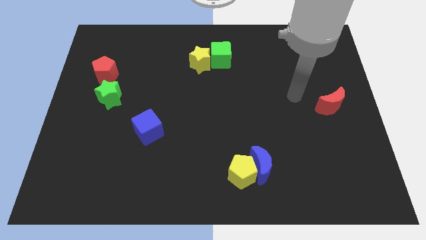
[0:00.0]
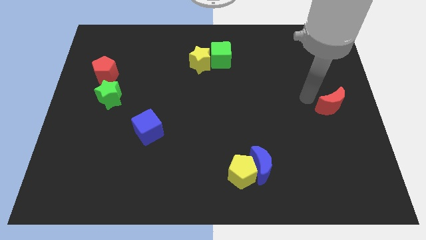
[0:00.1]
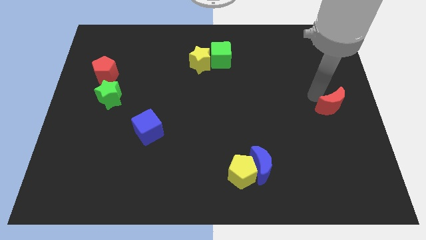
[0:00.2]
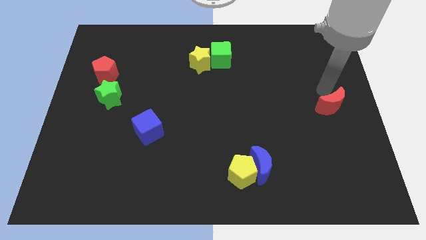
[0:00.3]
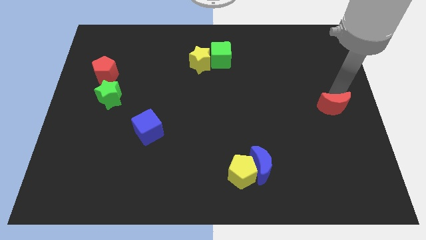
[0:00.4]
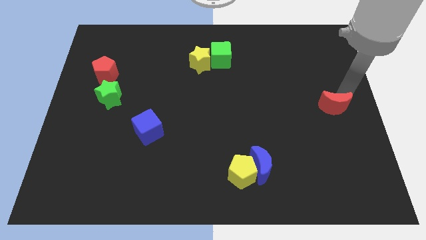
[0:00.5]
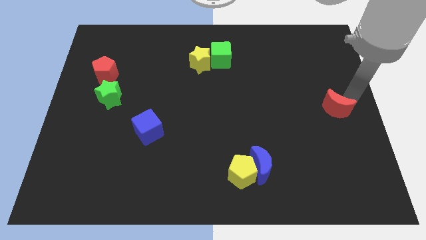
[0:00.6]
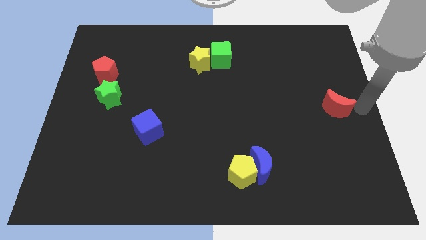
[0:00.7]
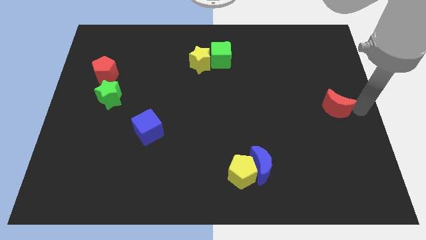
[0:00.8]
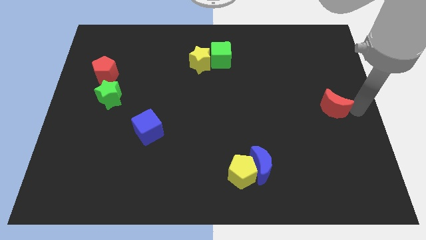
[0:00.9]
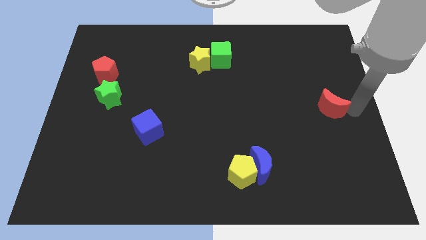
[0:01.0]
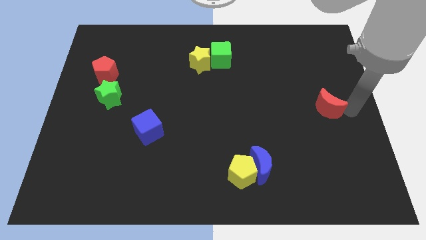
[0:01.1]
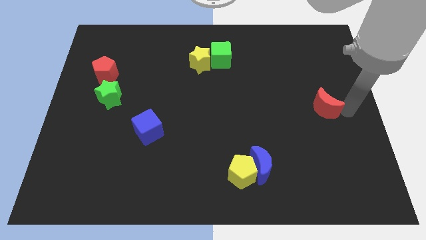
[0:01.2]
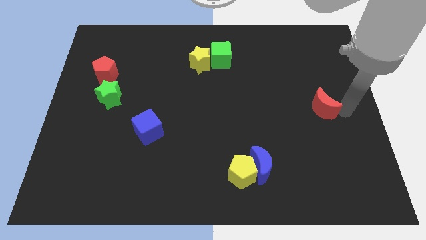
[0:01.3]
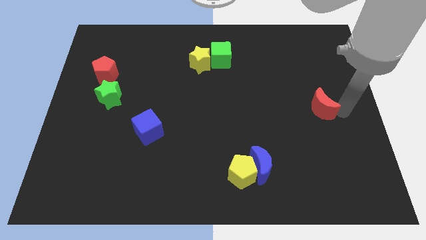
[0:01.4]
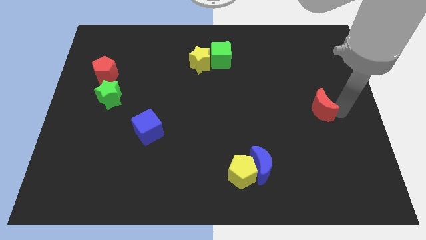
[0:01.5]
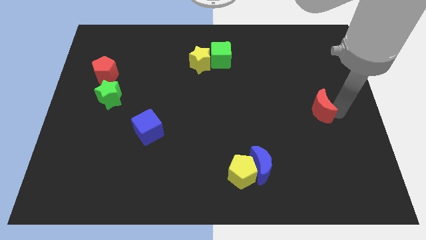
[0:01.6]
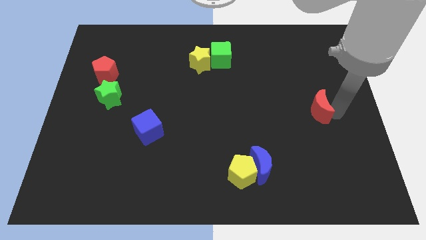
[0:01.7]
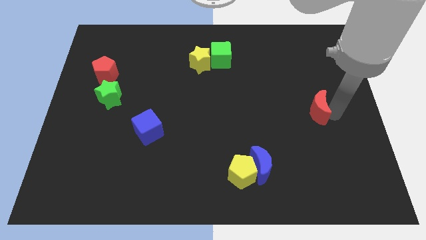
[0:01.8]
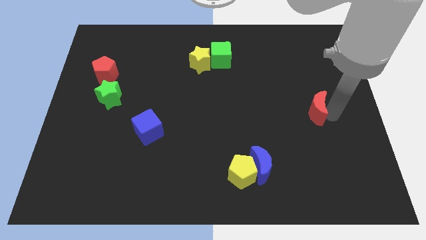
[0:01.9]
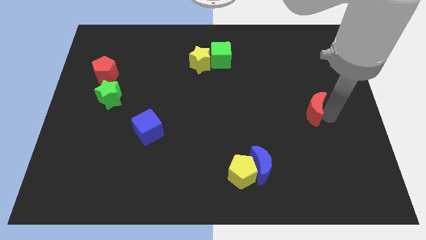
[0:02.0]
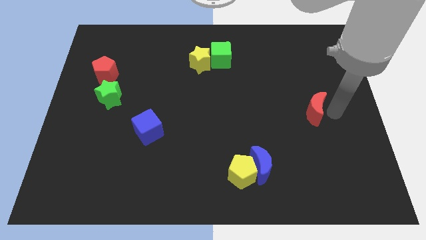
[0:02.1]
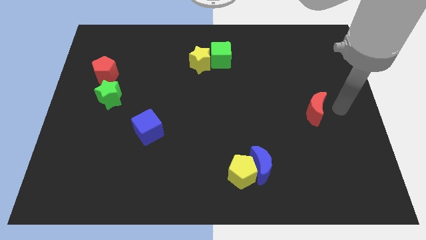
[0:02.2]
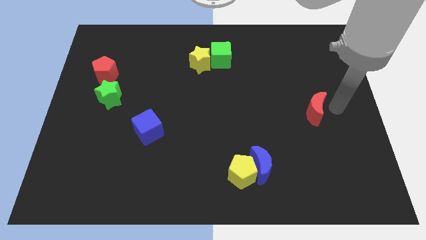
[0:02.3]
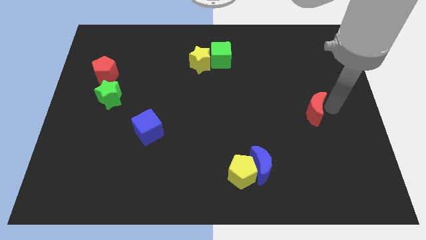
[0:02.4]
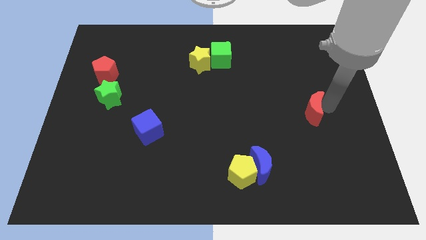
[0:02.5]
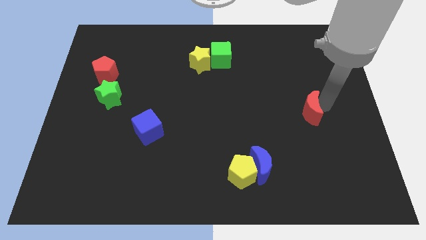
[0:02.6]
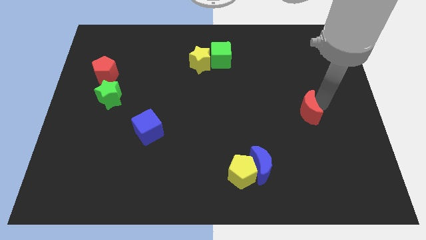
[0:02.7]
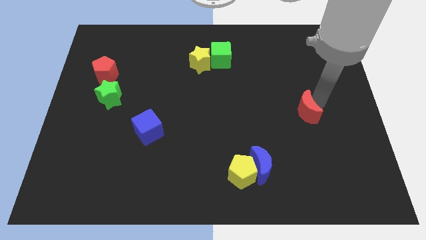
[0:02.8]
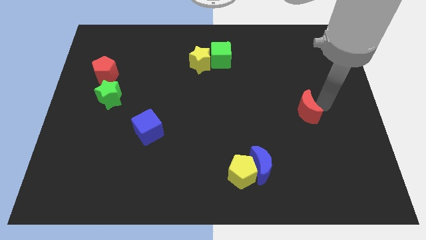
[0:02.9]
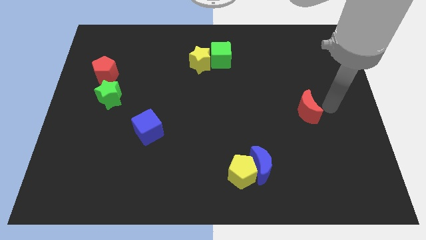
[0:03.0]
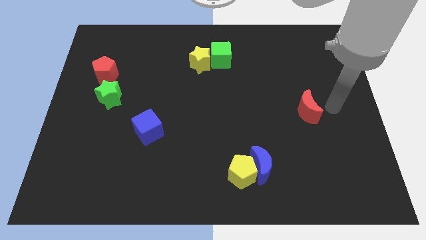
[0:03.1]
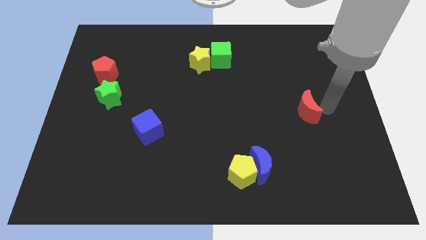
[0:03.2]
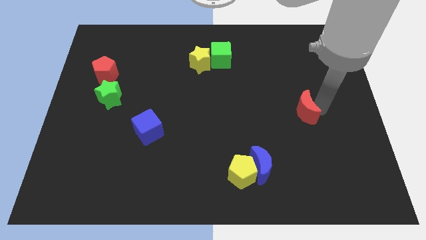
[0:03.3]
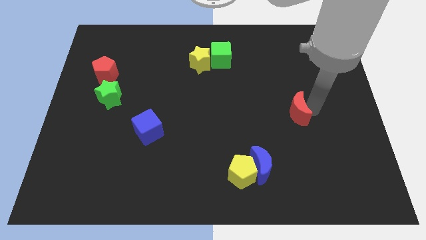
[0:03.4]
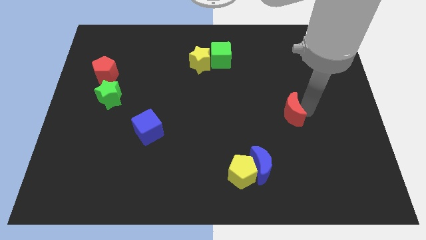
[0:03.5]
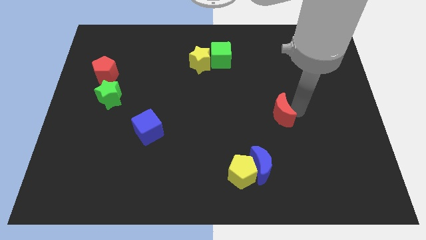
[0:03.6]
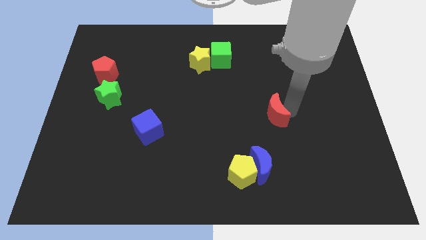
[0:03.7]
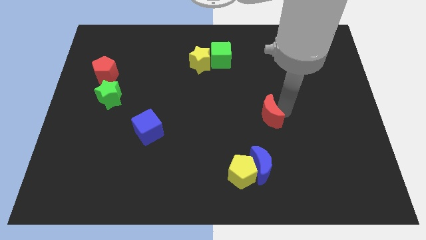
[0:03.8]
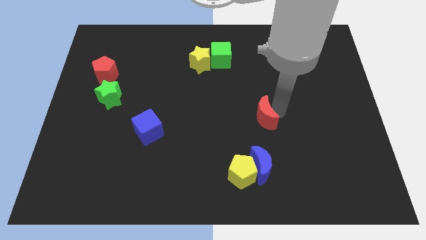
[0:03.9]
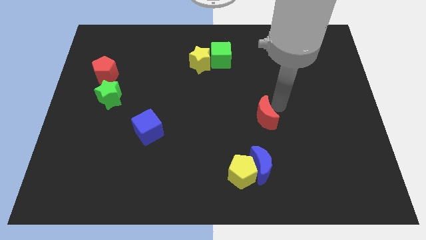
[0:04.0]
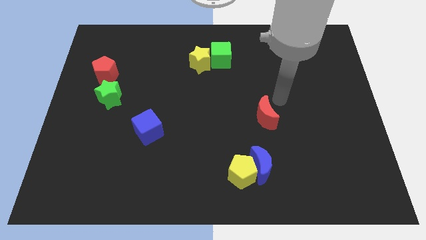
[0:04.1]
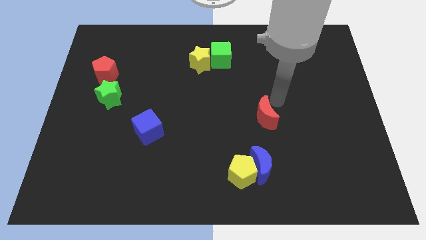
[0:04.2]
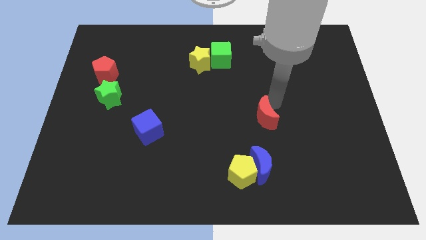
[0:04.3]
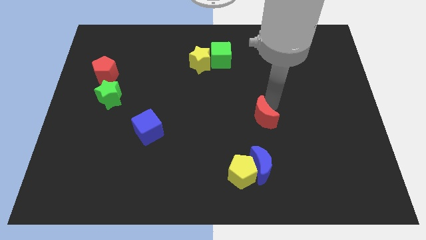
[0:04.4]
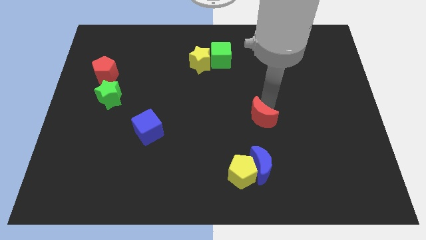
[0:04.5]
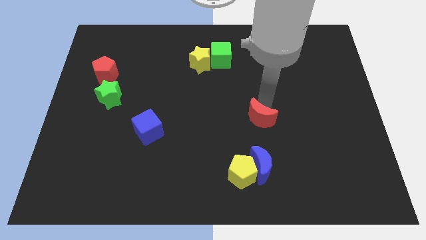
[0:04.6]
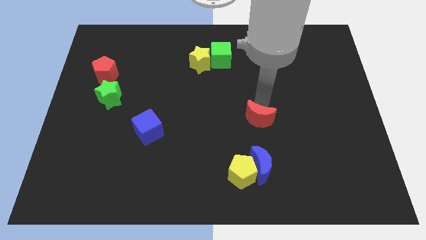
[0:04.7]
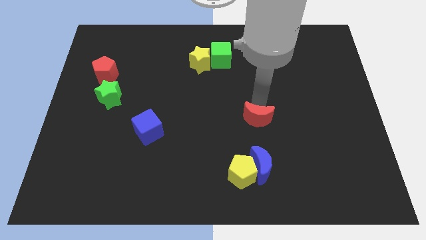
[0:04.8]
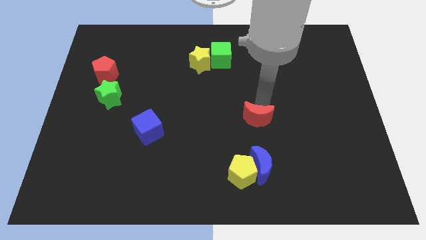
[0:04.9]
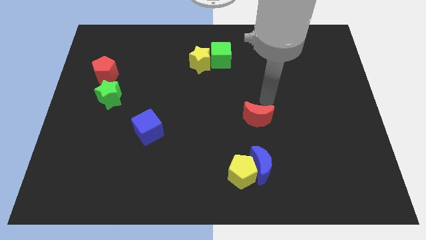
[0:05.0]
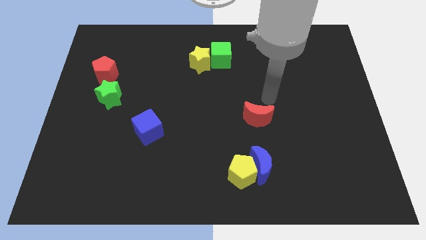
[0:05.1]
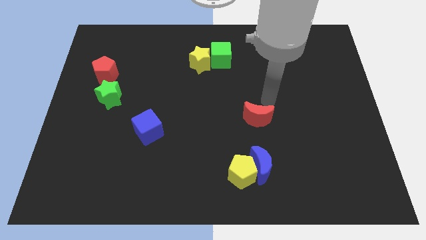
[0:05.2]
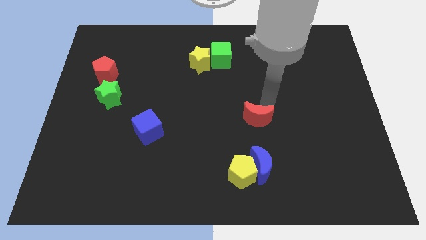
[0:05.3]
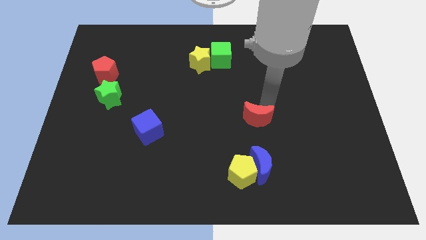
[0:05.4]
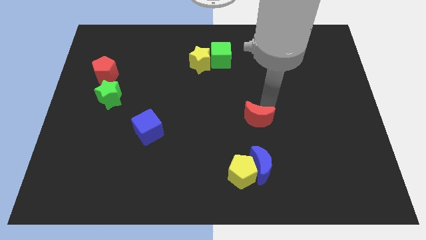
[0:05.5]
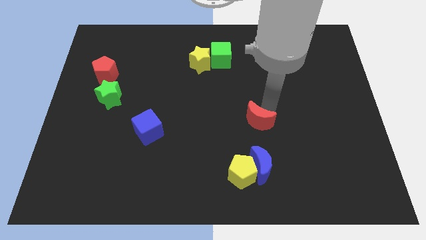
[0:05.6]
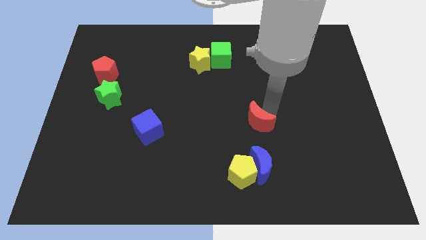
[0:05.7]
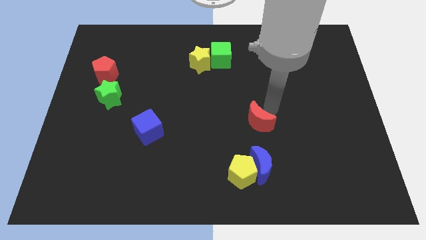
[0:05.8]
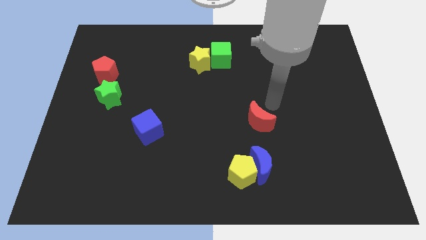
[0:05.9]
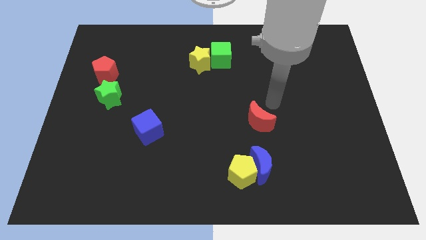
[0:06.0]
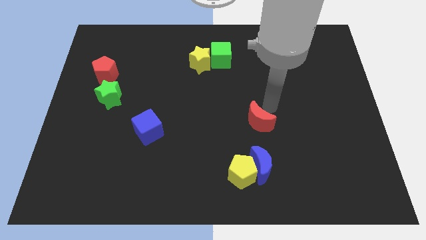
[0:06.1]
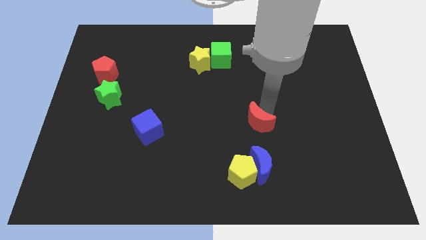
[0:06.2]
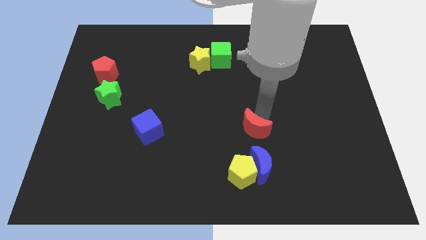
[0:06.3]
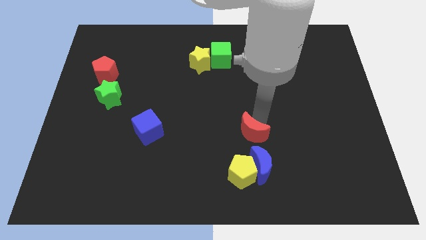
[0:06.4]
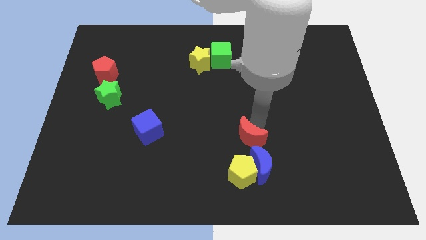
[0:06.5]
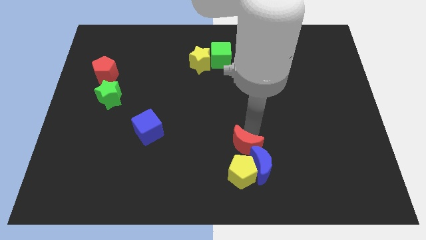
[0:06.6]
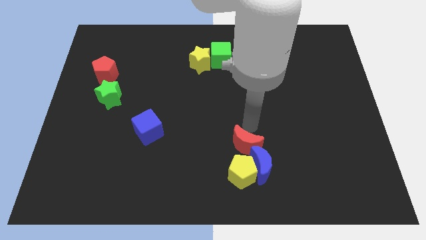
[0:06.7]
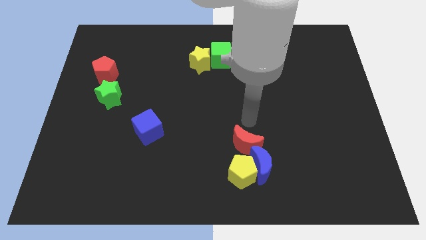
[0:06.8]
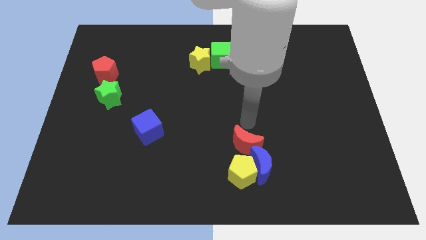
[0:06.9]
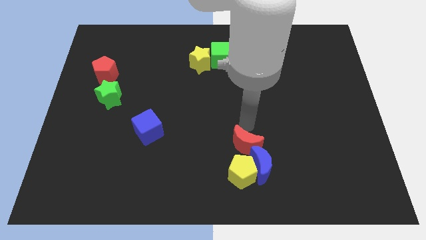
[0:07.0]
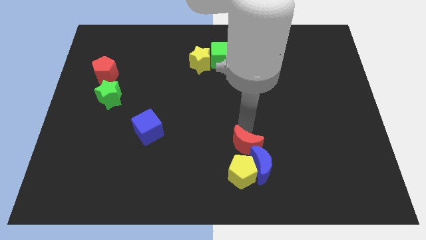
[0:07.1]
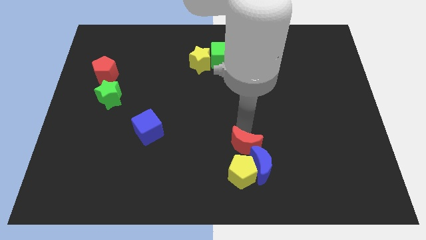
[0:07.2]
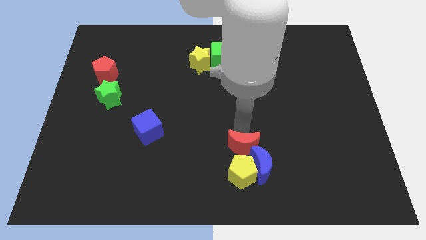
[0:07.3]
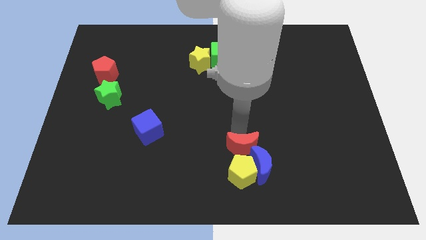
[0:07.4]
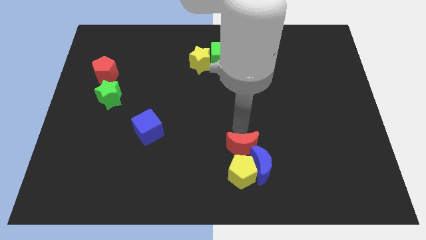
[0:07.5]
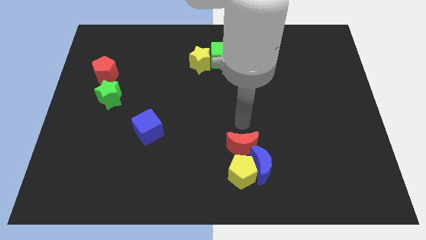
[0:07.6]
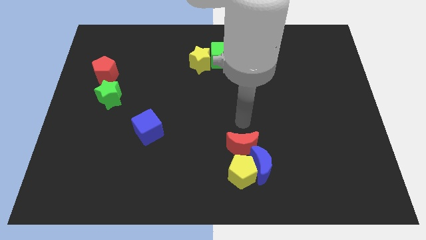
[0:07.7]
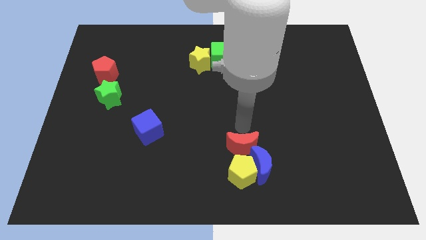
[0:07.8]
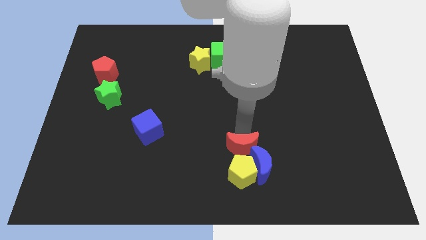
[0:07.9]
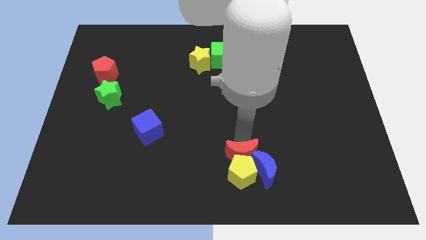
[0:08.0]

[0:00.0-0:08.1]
put the red moon close to the yellow pentagon

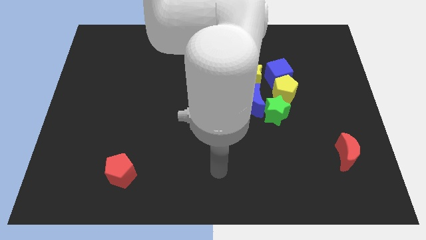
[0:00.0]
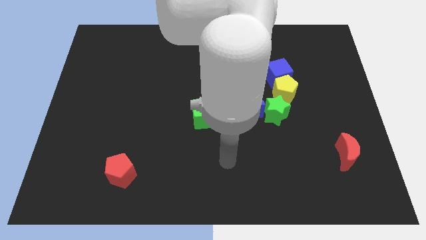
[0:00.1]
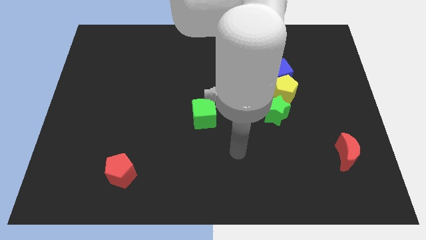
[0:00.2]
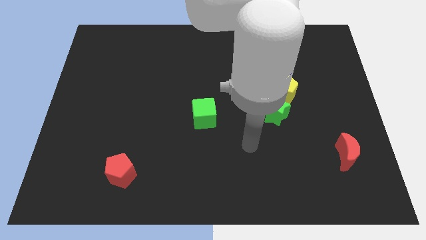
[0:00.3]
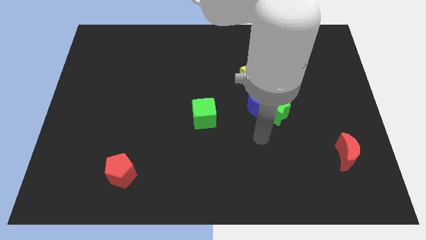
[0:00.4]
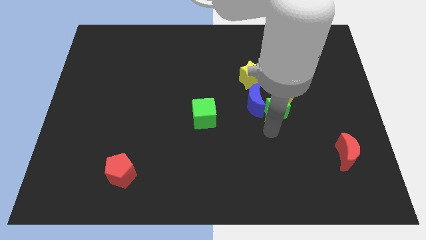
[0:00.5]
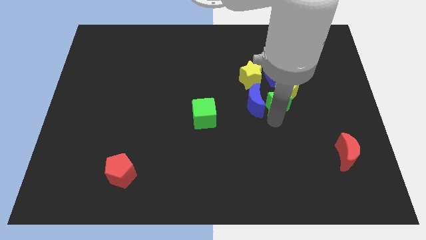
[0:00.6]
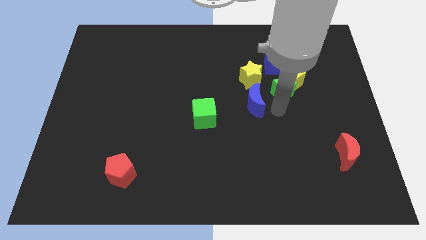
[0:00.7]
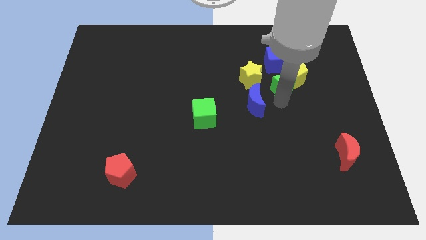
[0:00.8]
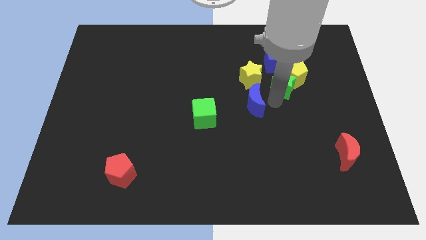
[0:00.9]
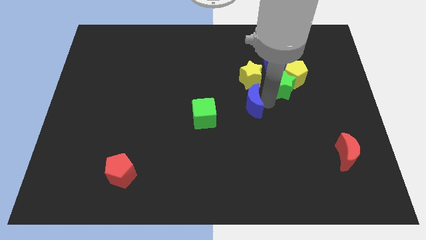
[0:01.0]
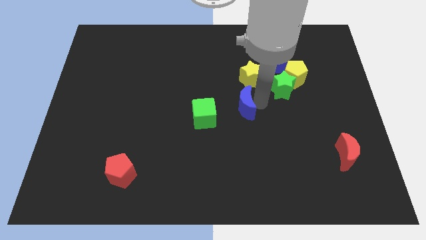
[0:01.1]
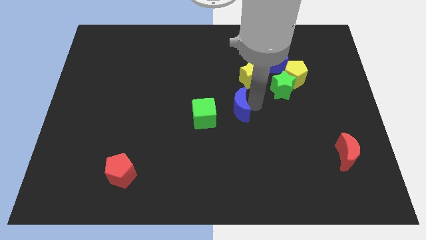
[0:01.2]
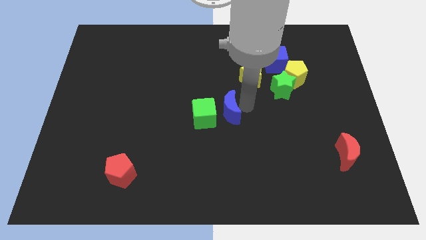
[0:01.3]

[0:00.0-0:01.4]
move the blue moon next to the green cube
